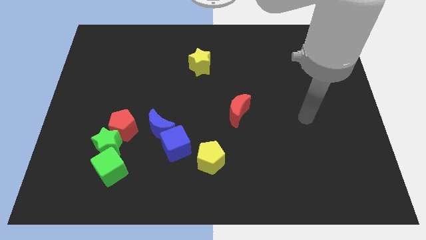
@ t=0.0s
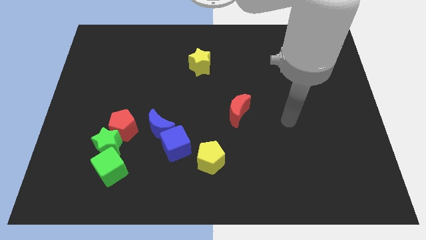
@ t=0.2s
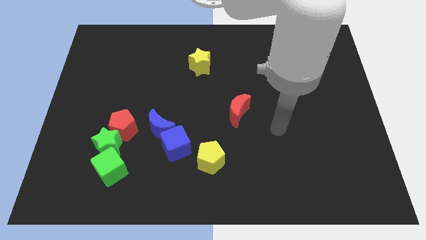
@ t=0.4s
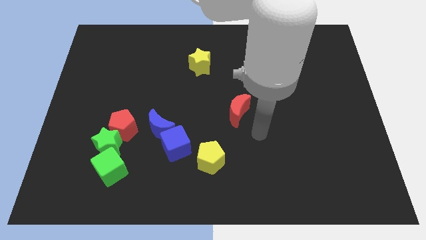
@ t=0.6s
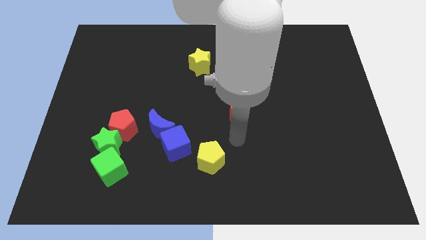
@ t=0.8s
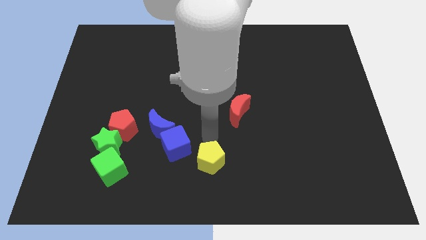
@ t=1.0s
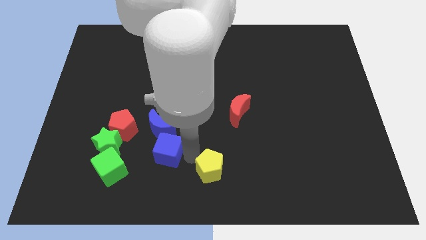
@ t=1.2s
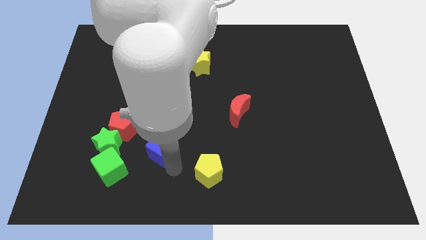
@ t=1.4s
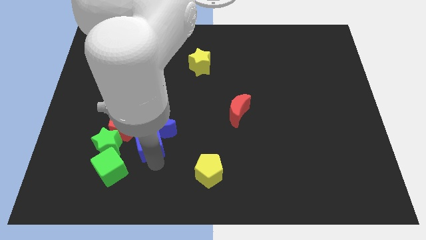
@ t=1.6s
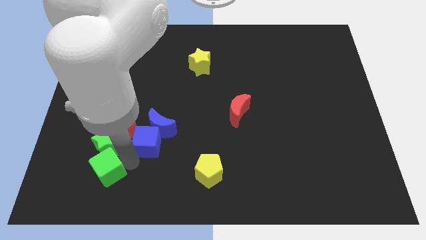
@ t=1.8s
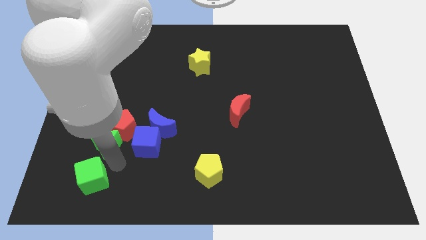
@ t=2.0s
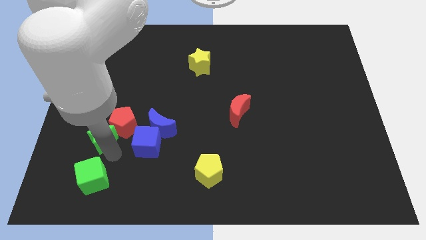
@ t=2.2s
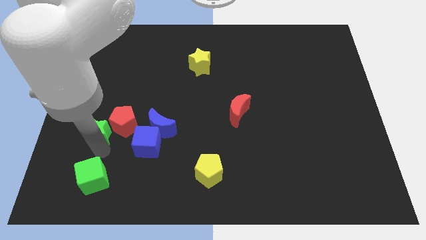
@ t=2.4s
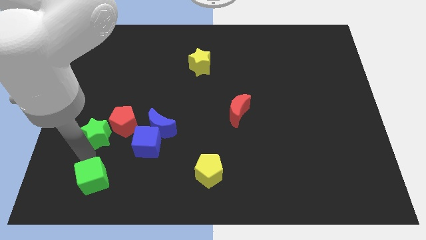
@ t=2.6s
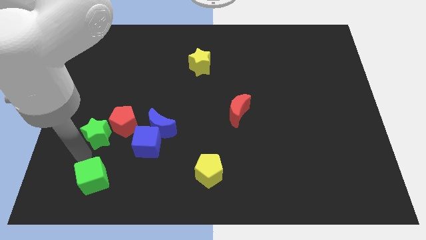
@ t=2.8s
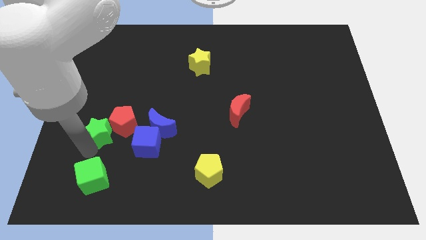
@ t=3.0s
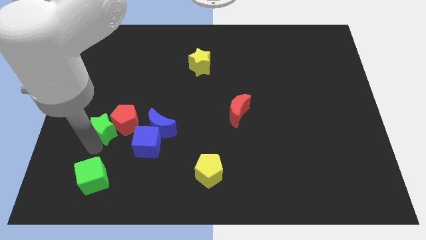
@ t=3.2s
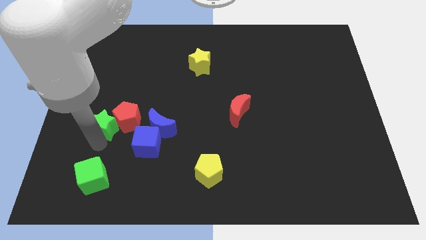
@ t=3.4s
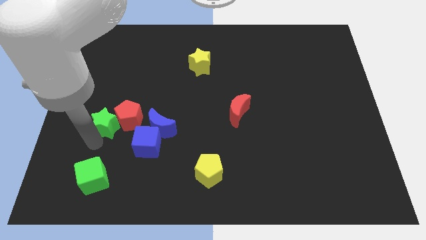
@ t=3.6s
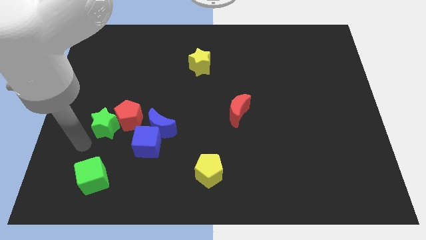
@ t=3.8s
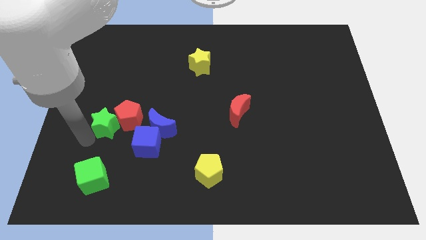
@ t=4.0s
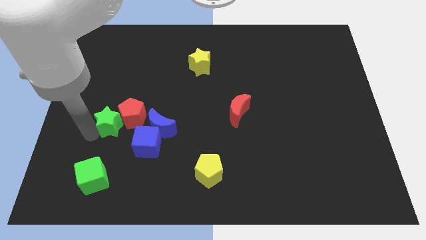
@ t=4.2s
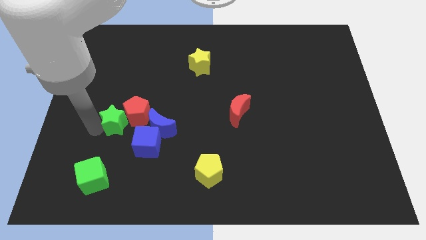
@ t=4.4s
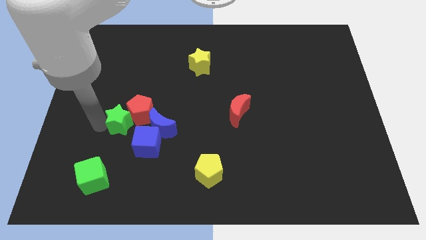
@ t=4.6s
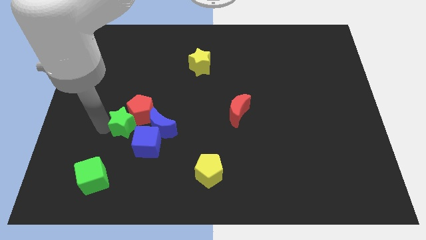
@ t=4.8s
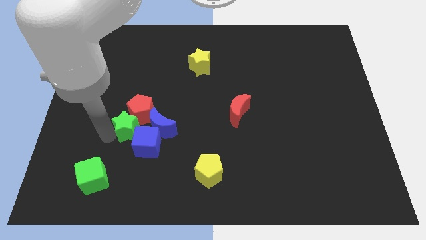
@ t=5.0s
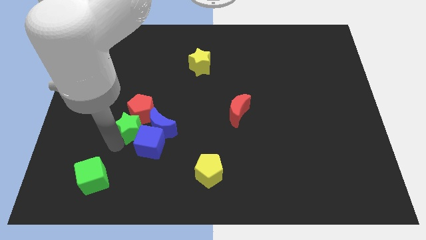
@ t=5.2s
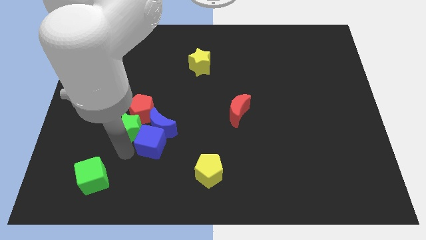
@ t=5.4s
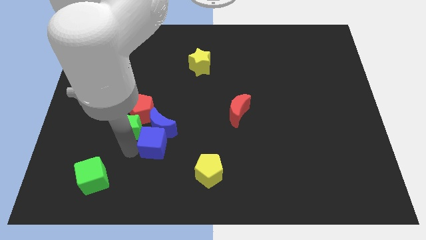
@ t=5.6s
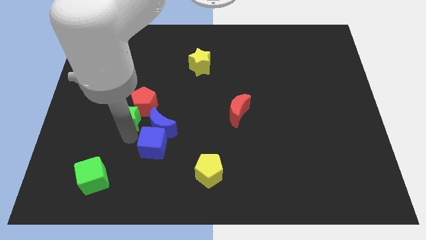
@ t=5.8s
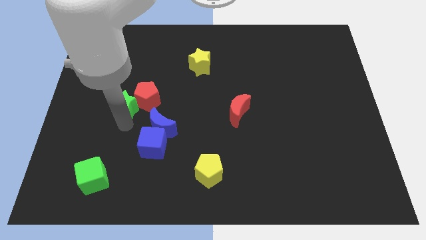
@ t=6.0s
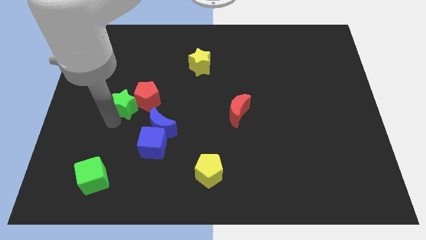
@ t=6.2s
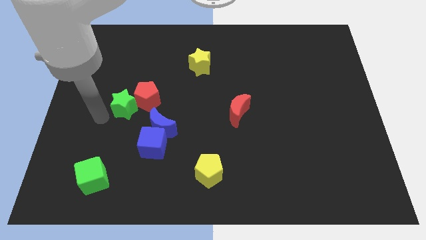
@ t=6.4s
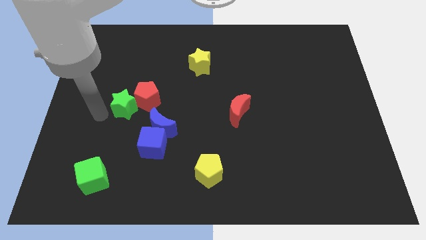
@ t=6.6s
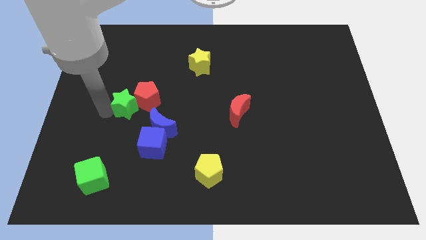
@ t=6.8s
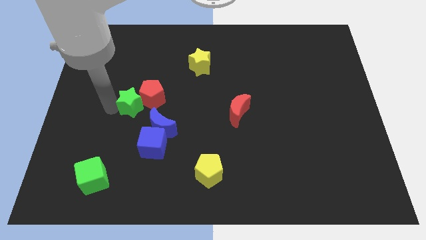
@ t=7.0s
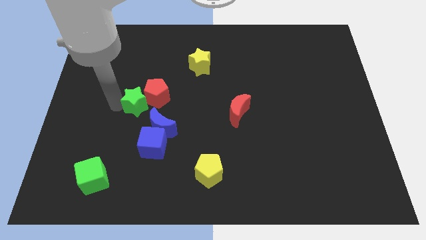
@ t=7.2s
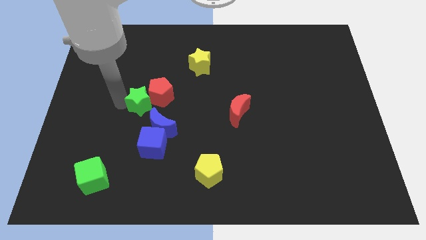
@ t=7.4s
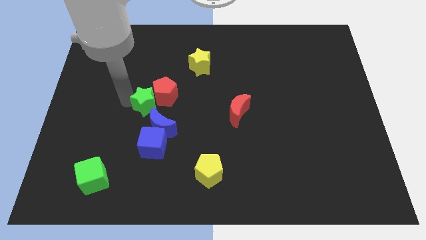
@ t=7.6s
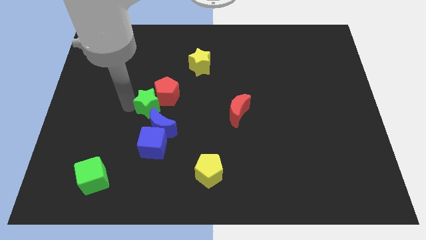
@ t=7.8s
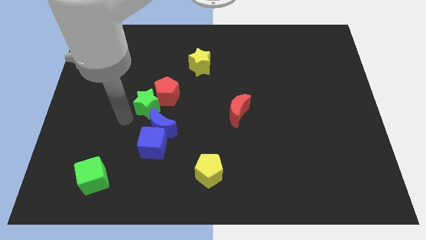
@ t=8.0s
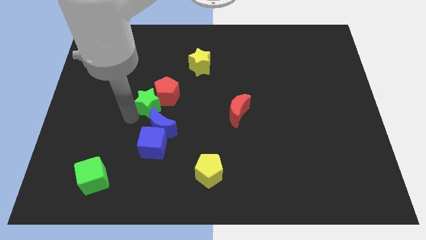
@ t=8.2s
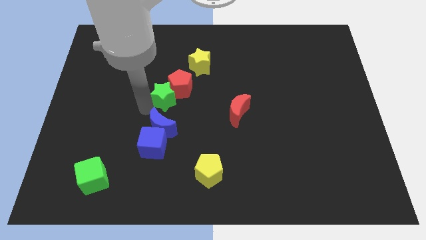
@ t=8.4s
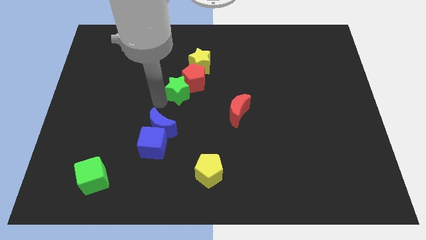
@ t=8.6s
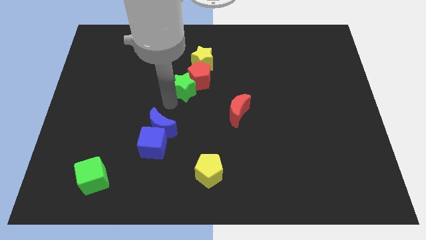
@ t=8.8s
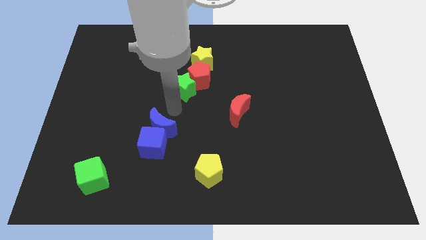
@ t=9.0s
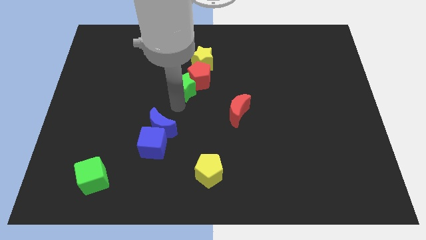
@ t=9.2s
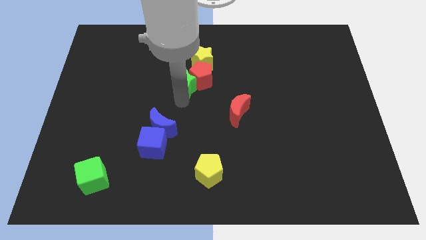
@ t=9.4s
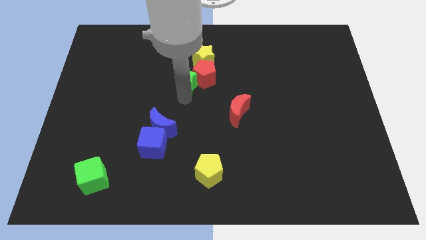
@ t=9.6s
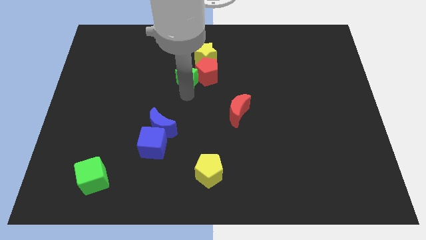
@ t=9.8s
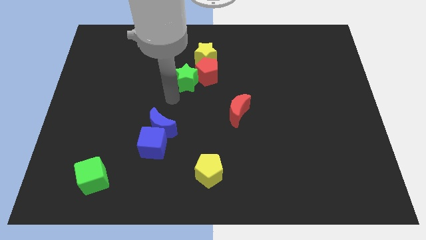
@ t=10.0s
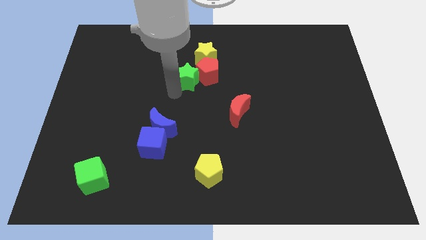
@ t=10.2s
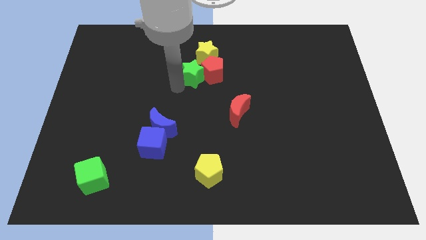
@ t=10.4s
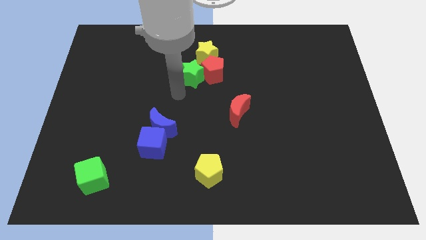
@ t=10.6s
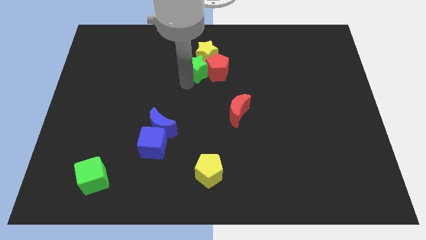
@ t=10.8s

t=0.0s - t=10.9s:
slide the green star to the yellow star

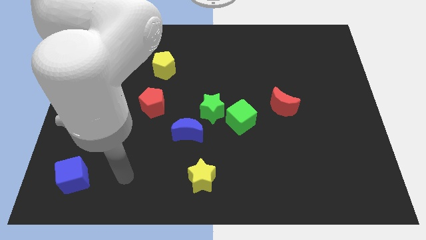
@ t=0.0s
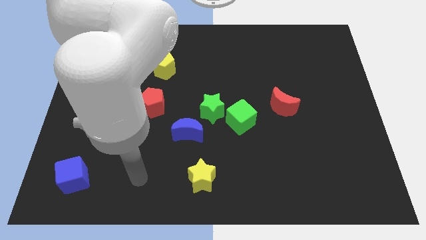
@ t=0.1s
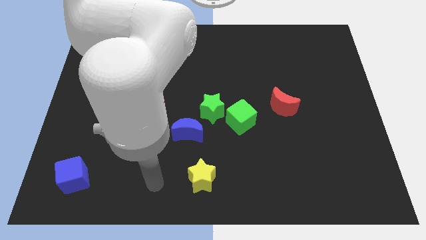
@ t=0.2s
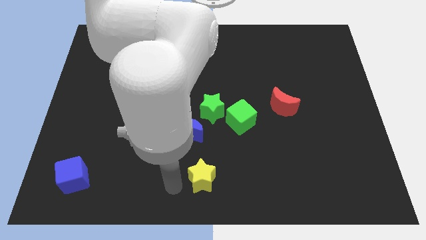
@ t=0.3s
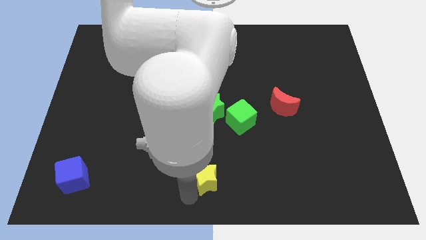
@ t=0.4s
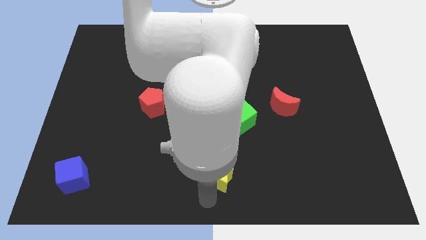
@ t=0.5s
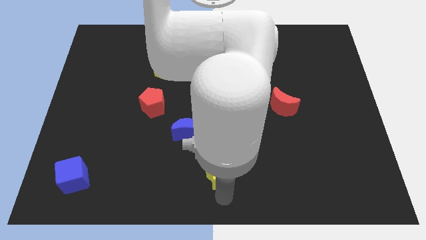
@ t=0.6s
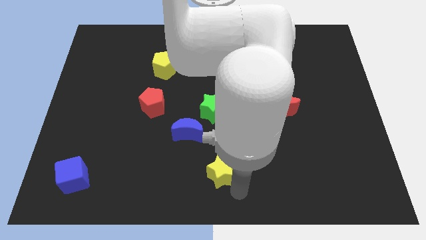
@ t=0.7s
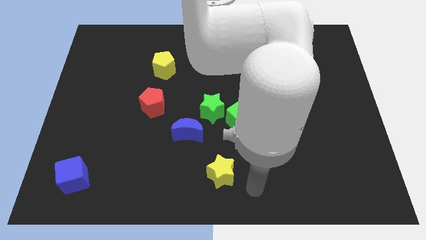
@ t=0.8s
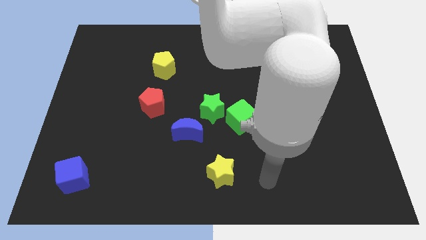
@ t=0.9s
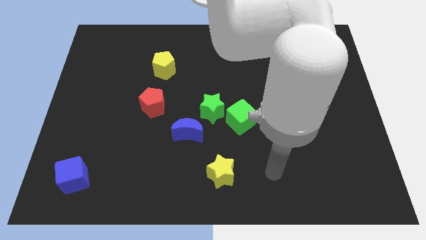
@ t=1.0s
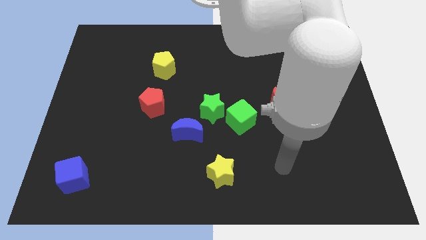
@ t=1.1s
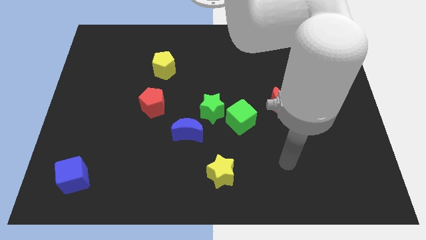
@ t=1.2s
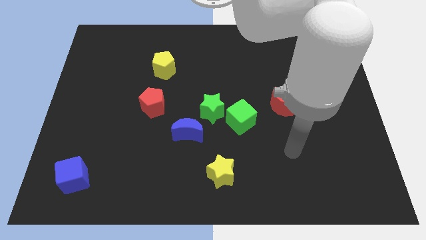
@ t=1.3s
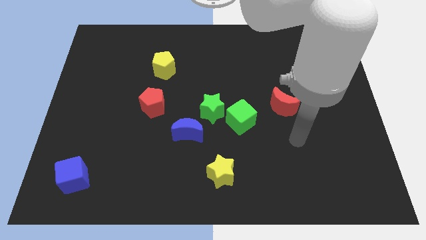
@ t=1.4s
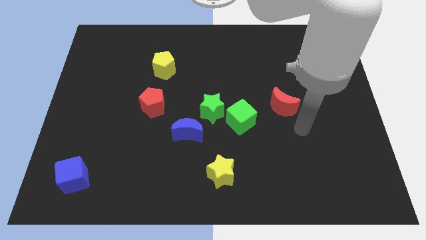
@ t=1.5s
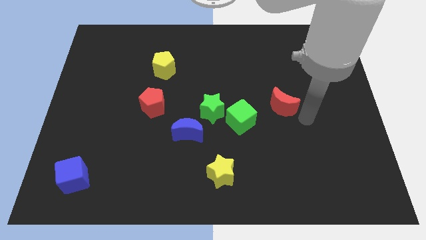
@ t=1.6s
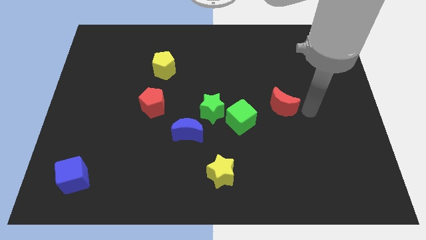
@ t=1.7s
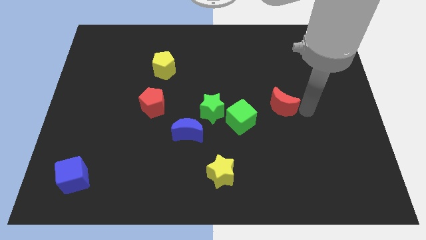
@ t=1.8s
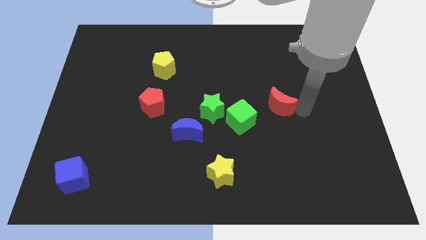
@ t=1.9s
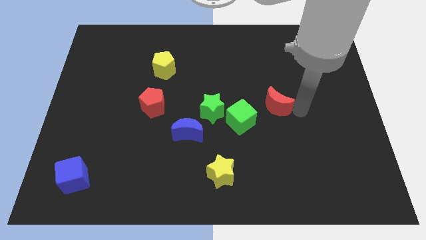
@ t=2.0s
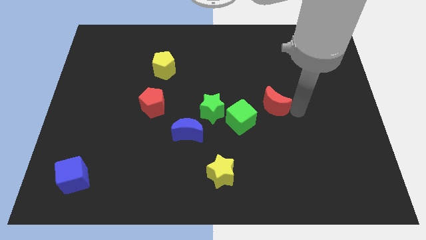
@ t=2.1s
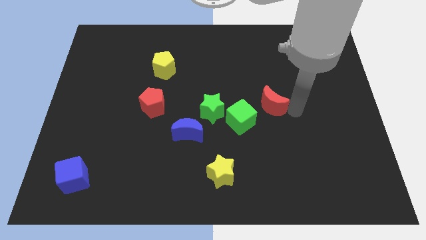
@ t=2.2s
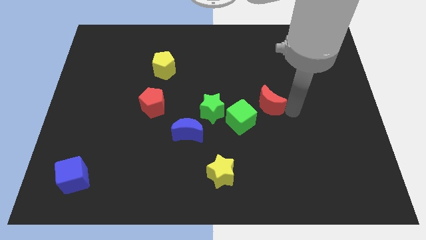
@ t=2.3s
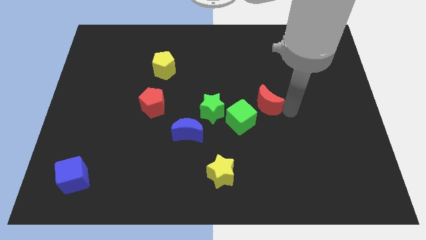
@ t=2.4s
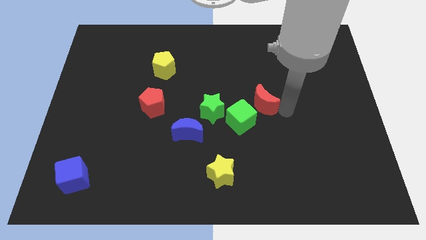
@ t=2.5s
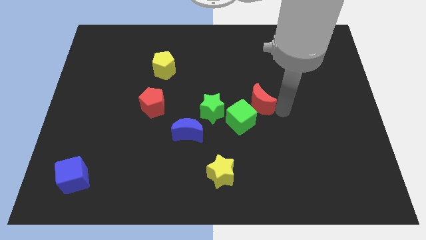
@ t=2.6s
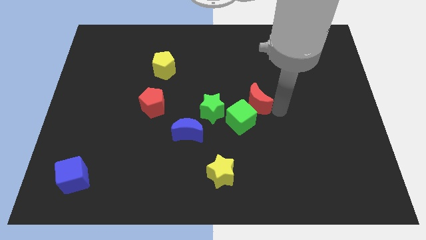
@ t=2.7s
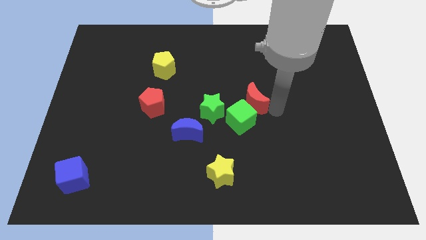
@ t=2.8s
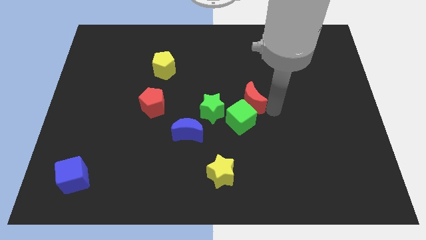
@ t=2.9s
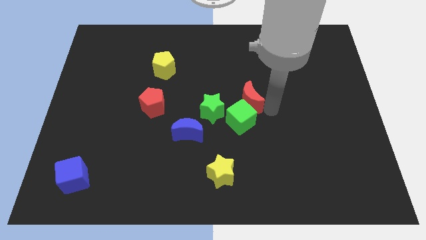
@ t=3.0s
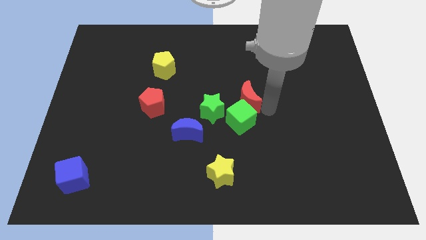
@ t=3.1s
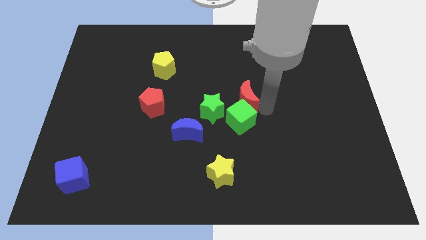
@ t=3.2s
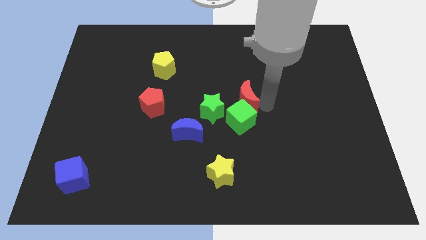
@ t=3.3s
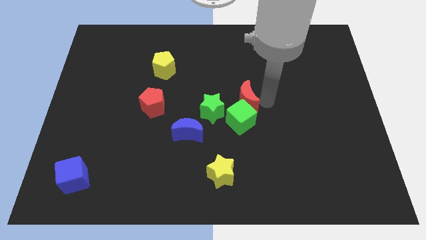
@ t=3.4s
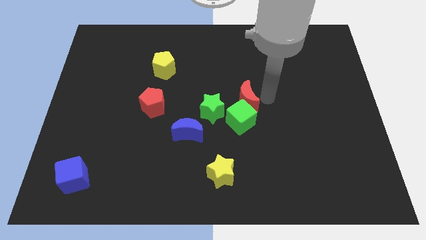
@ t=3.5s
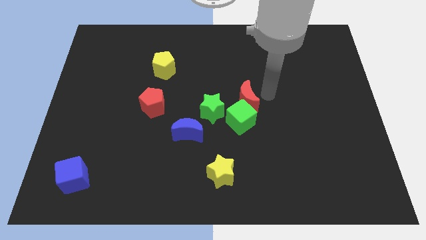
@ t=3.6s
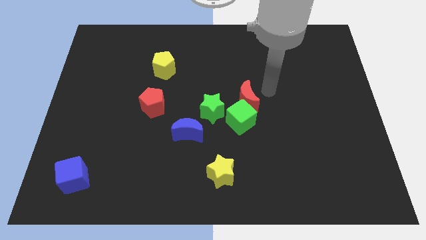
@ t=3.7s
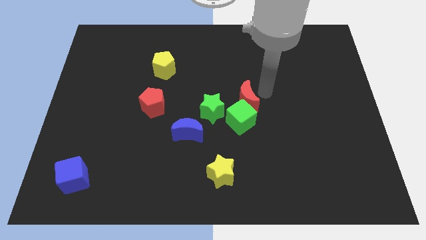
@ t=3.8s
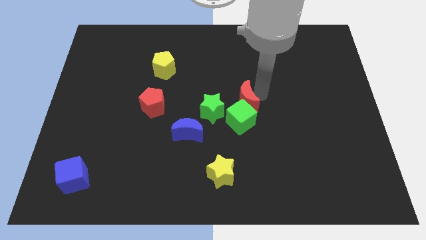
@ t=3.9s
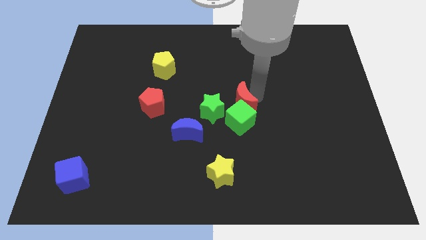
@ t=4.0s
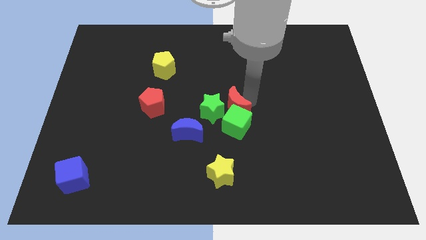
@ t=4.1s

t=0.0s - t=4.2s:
put the red moon towards the green star
